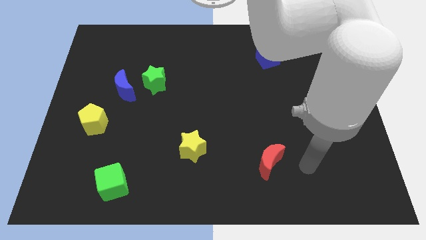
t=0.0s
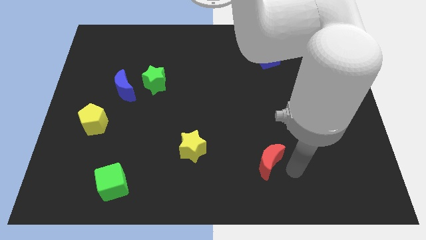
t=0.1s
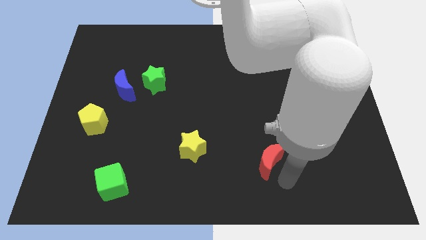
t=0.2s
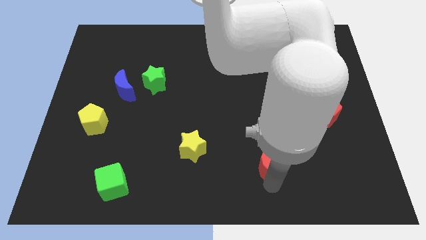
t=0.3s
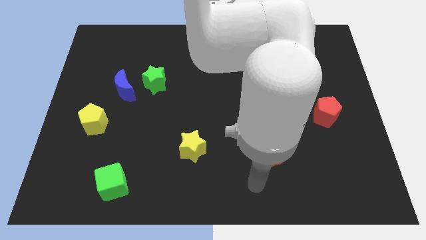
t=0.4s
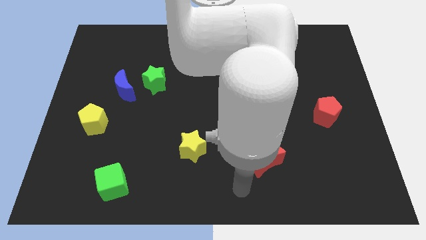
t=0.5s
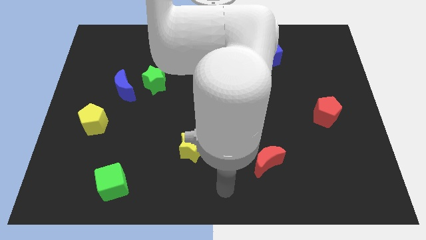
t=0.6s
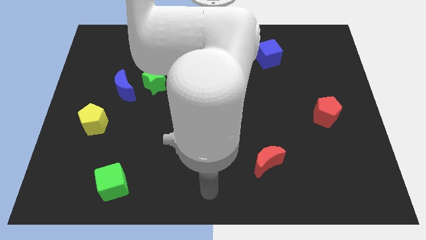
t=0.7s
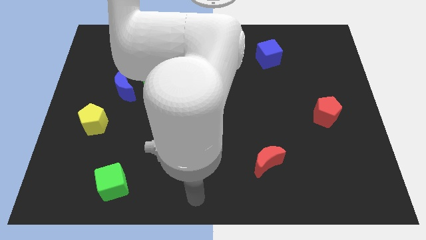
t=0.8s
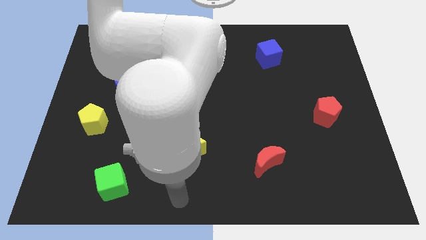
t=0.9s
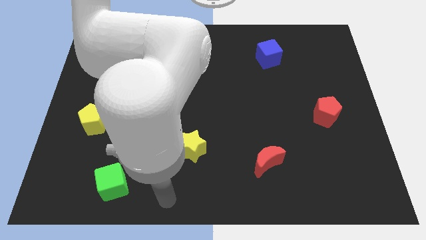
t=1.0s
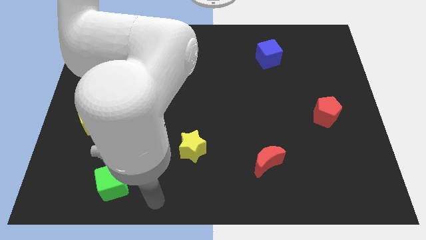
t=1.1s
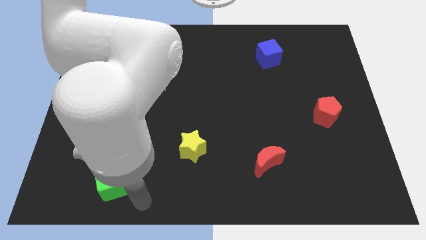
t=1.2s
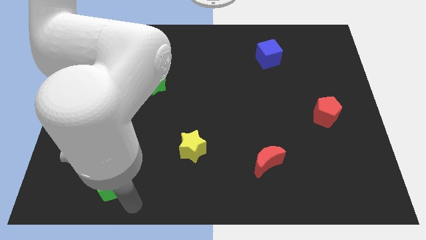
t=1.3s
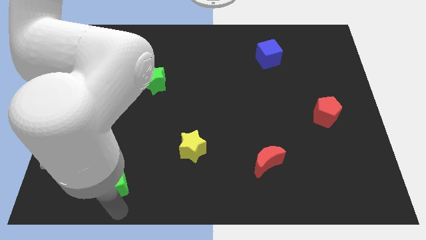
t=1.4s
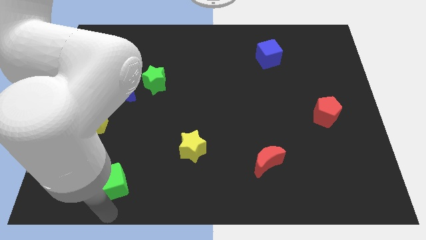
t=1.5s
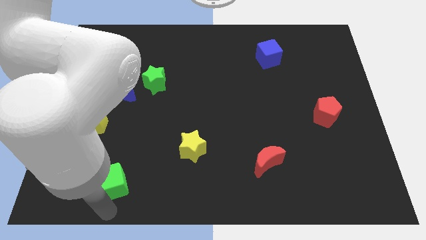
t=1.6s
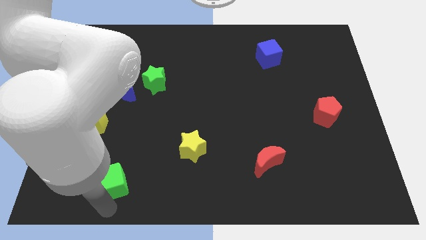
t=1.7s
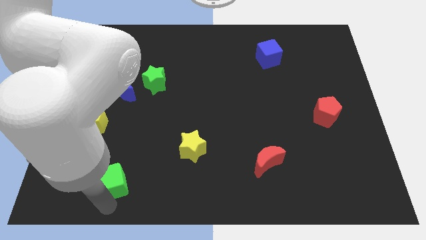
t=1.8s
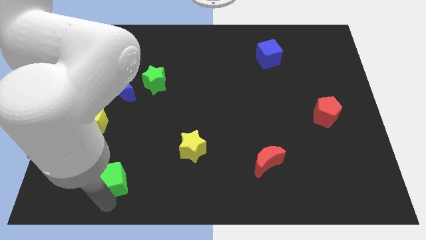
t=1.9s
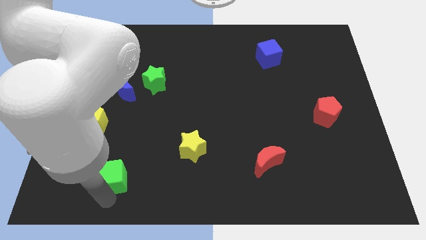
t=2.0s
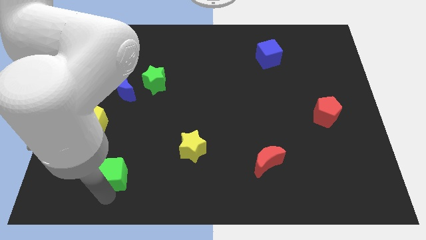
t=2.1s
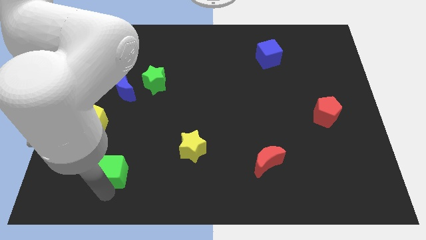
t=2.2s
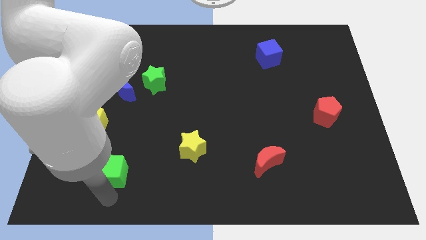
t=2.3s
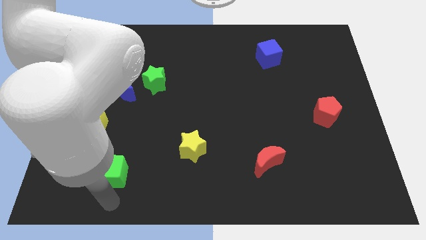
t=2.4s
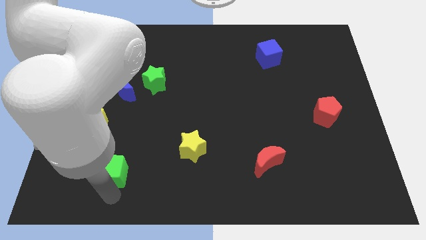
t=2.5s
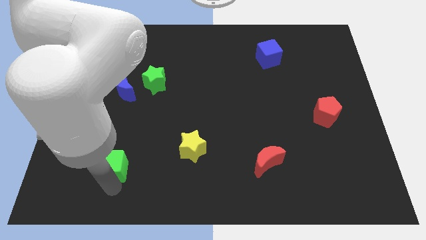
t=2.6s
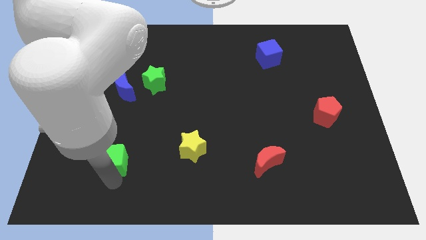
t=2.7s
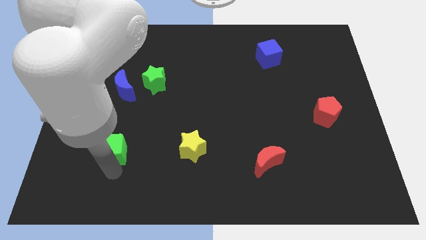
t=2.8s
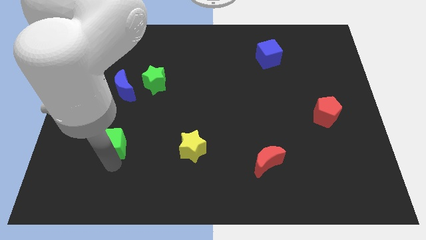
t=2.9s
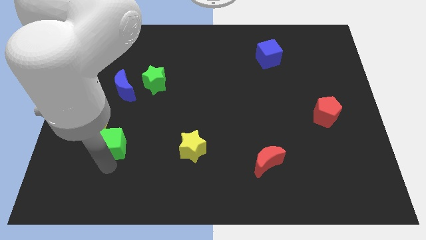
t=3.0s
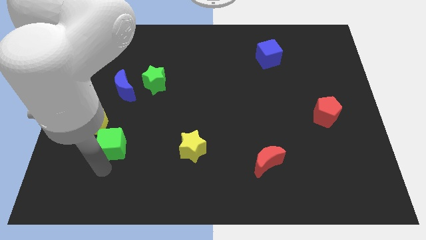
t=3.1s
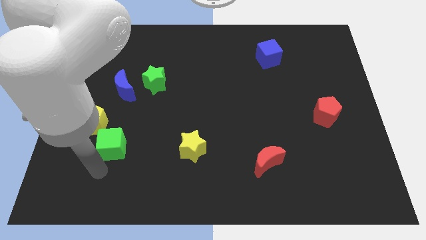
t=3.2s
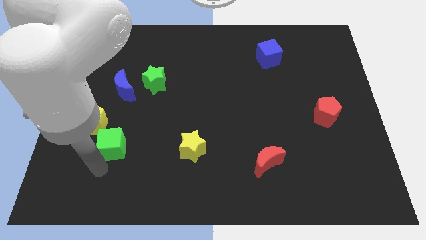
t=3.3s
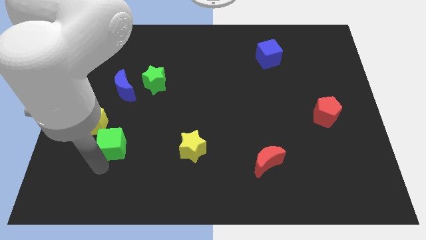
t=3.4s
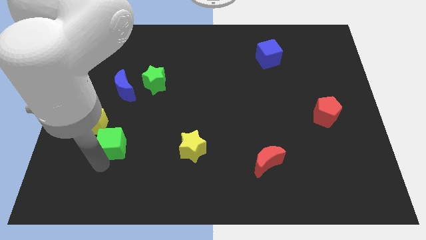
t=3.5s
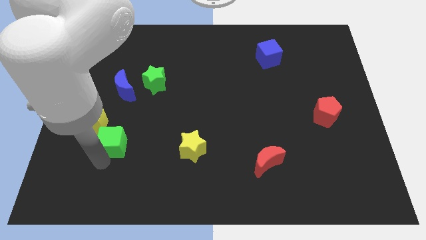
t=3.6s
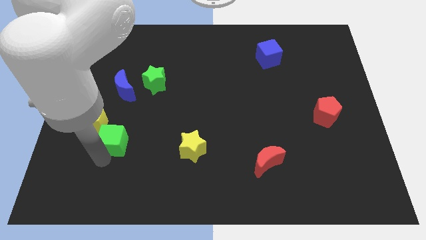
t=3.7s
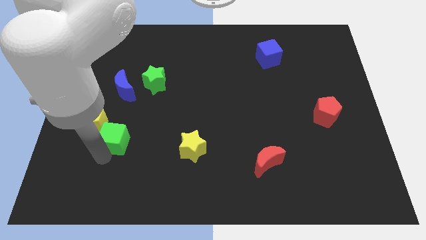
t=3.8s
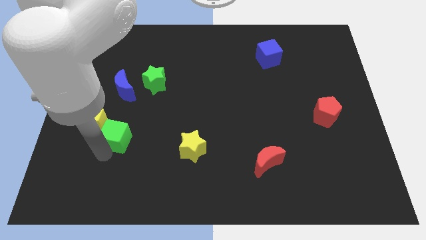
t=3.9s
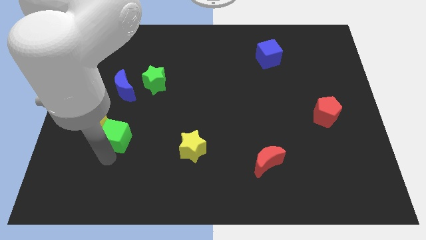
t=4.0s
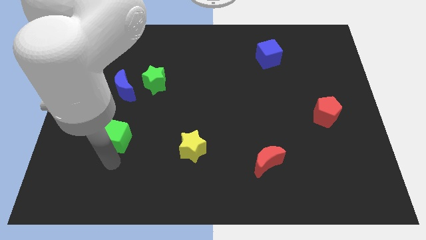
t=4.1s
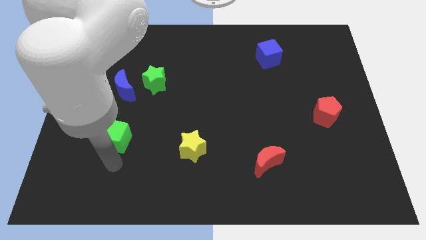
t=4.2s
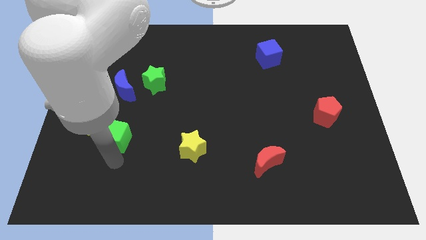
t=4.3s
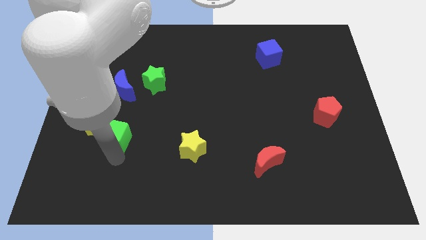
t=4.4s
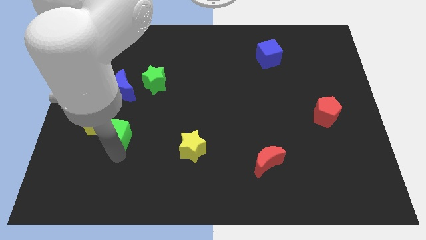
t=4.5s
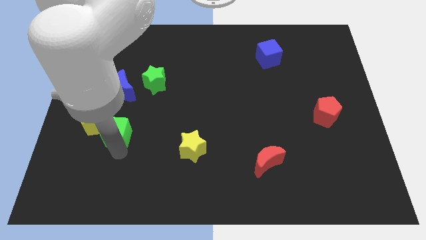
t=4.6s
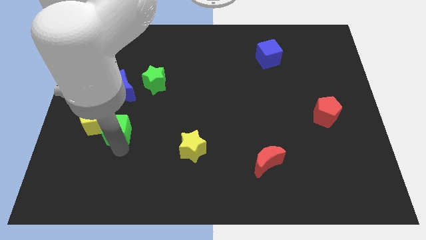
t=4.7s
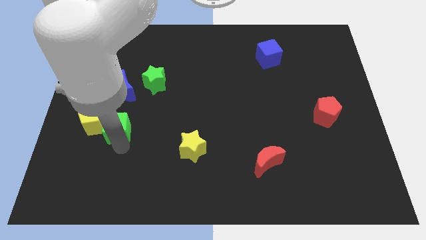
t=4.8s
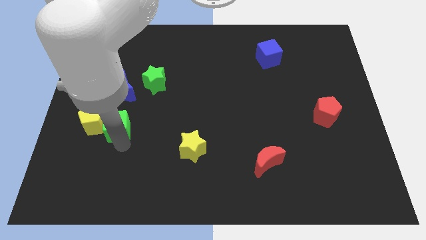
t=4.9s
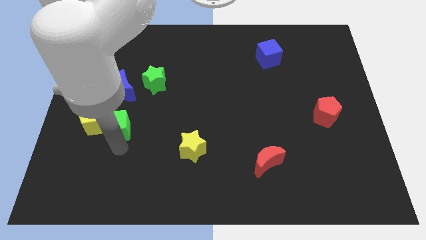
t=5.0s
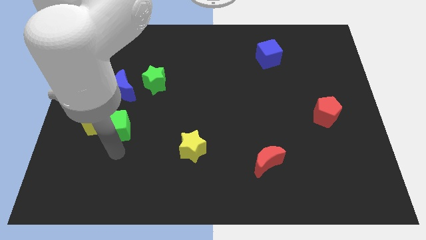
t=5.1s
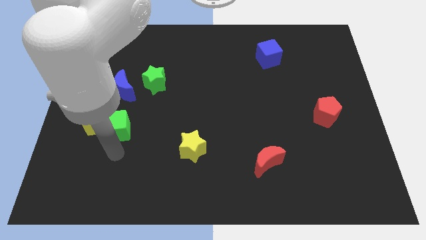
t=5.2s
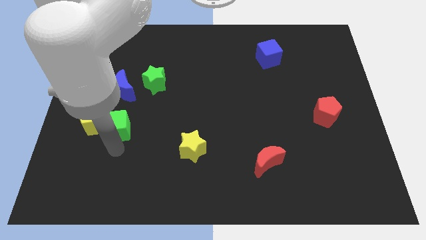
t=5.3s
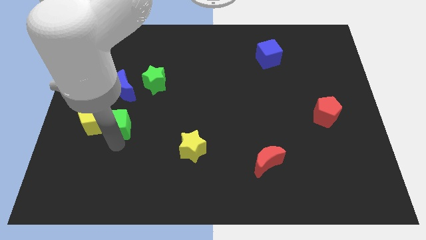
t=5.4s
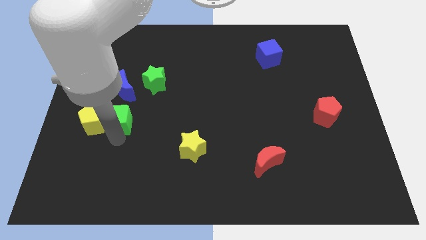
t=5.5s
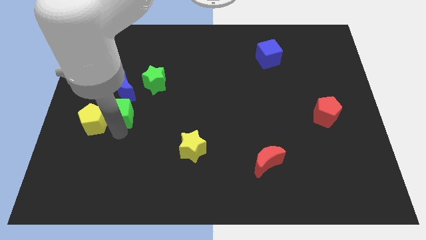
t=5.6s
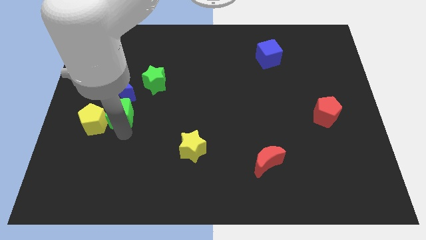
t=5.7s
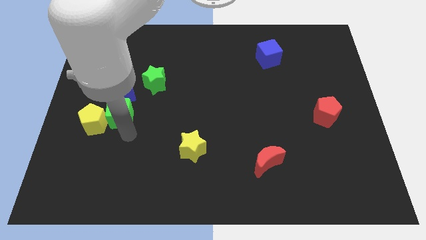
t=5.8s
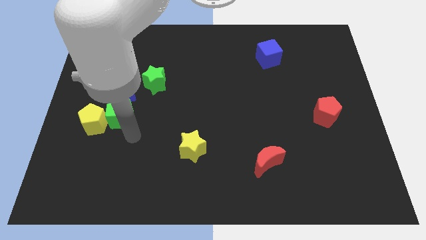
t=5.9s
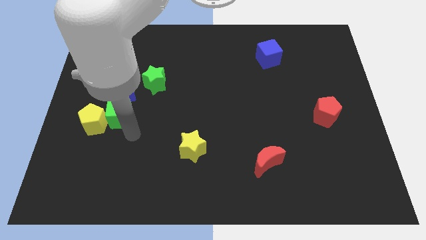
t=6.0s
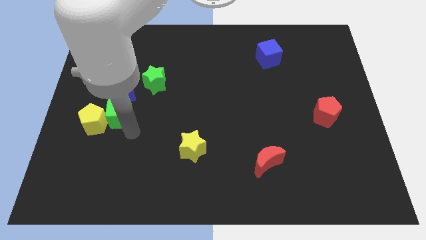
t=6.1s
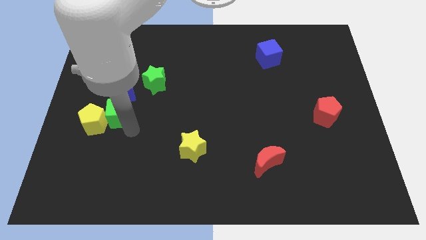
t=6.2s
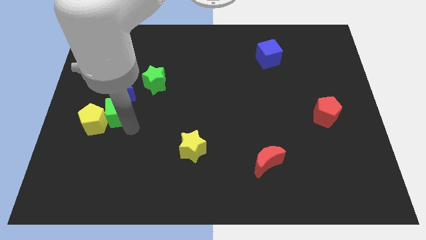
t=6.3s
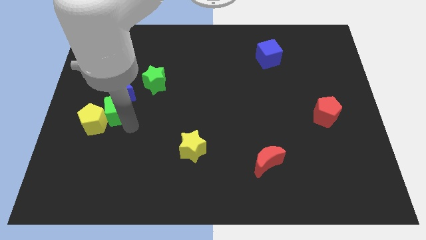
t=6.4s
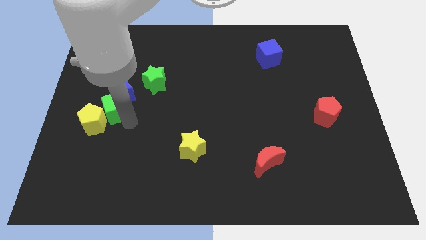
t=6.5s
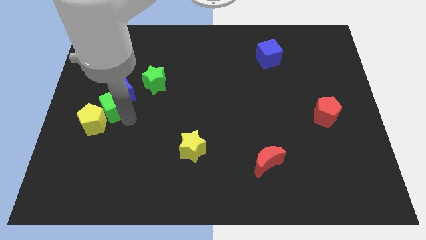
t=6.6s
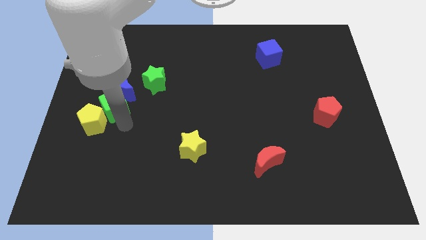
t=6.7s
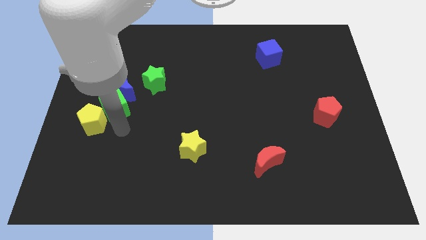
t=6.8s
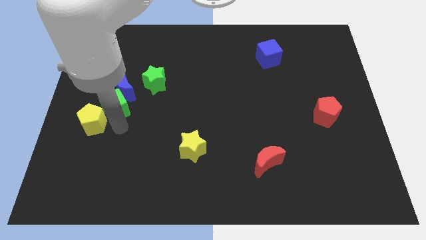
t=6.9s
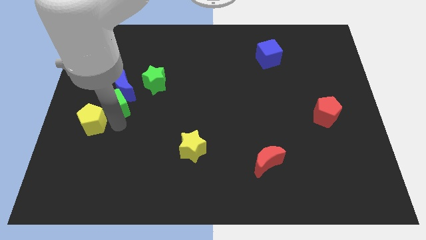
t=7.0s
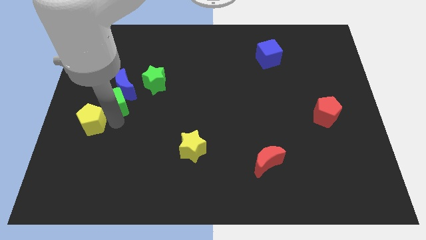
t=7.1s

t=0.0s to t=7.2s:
move the green cube upwards

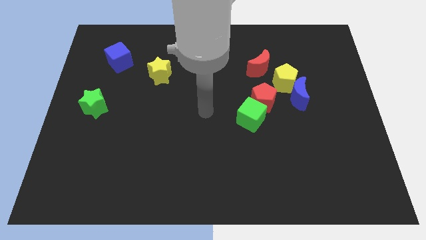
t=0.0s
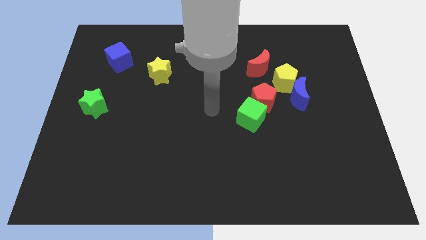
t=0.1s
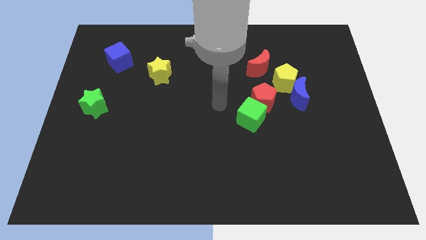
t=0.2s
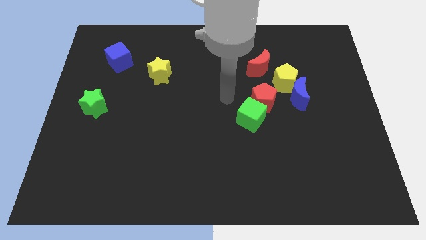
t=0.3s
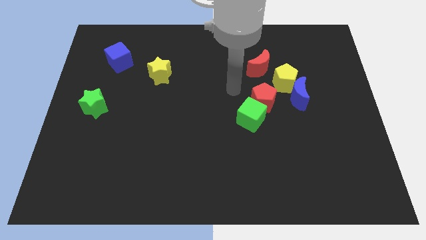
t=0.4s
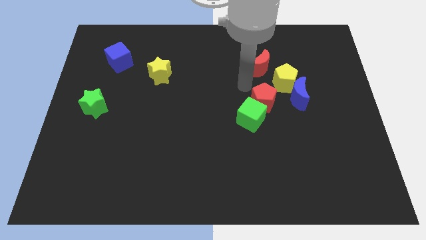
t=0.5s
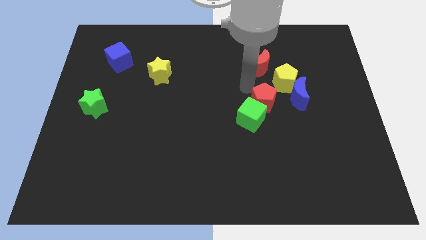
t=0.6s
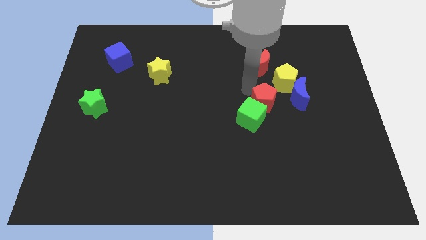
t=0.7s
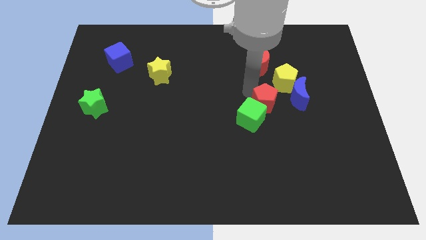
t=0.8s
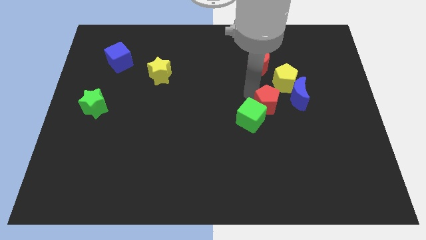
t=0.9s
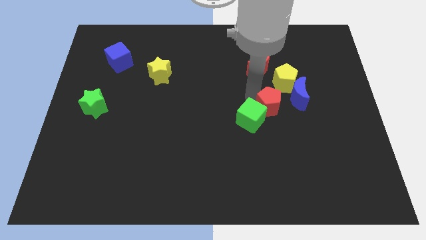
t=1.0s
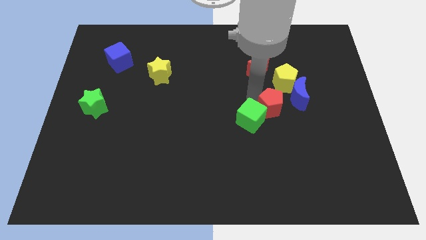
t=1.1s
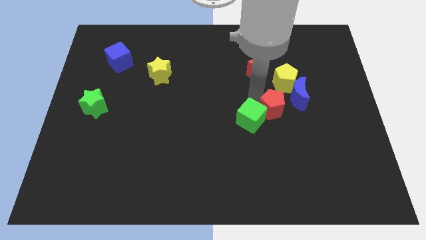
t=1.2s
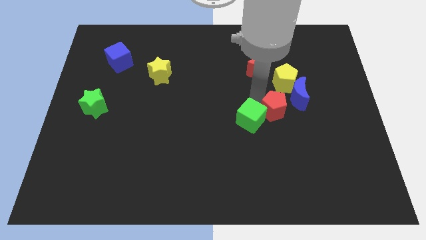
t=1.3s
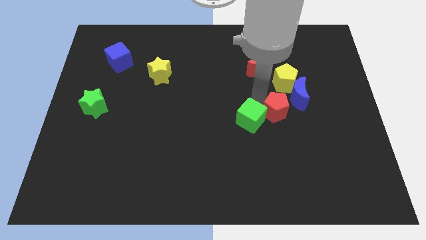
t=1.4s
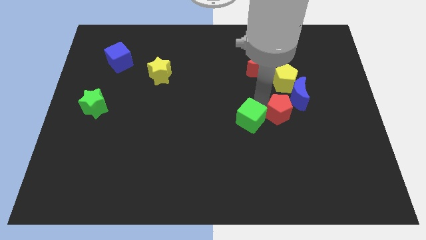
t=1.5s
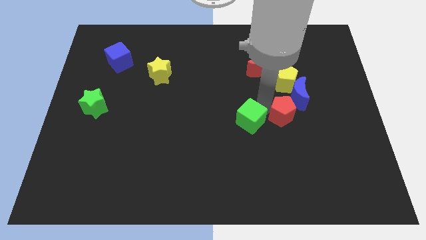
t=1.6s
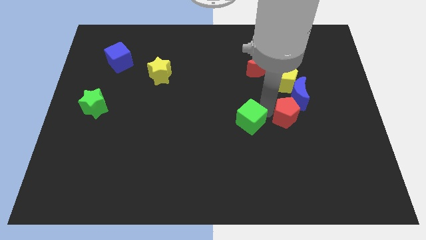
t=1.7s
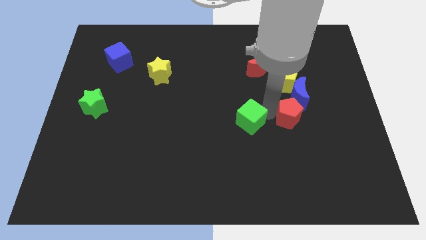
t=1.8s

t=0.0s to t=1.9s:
move the red pentagon diagonally downwards and to the right a bit
